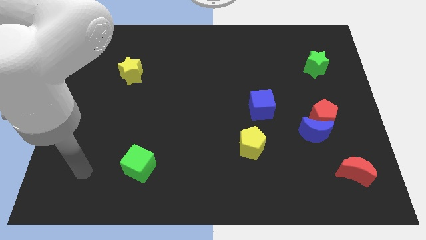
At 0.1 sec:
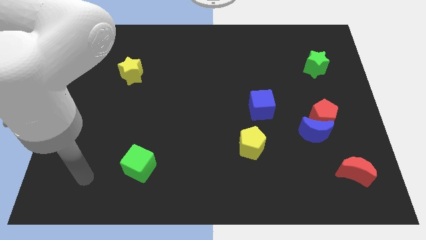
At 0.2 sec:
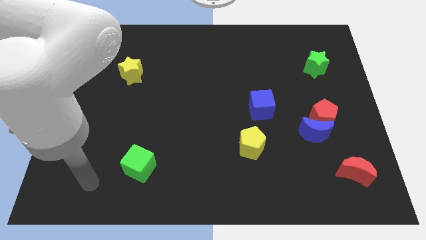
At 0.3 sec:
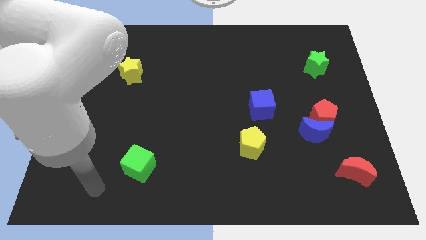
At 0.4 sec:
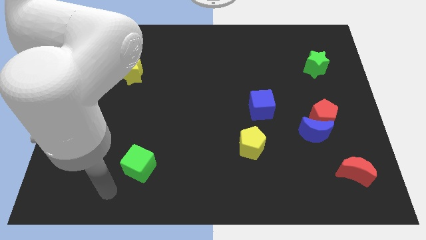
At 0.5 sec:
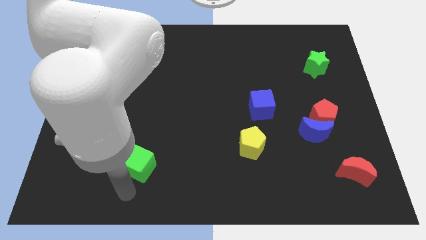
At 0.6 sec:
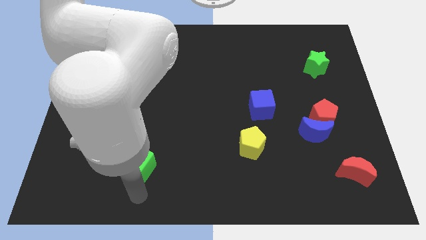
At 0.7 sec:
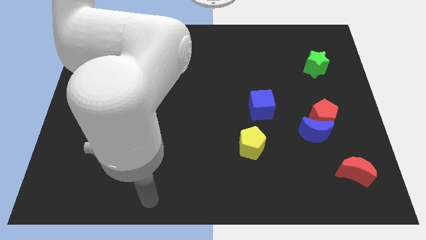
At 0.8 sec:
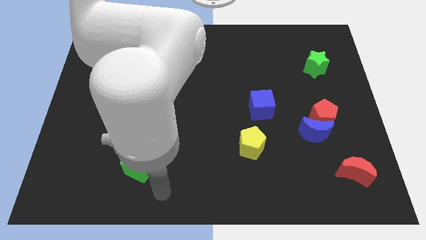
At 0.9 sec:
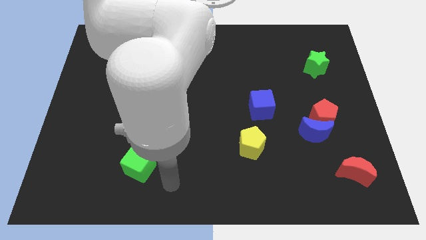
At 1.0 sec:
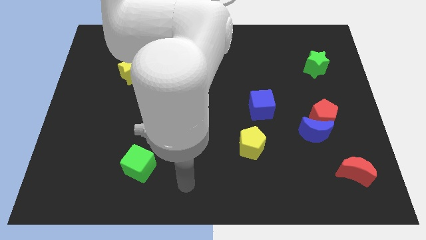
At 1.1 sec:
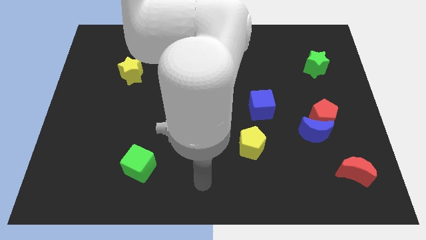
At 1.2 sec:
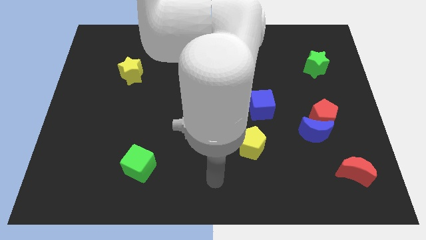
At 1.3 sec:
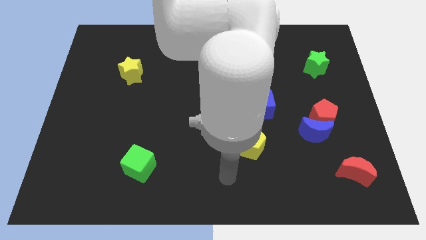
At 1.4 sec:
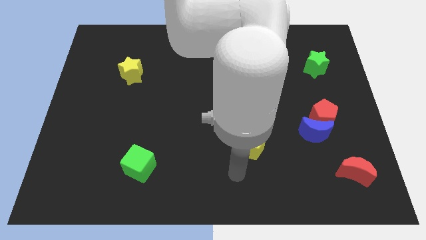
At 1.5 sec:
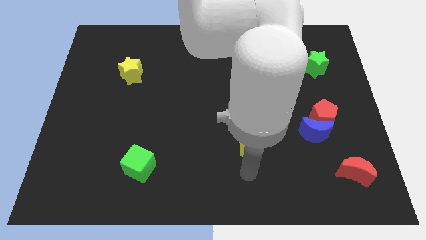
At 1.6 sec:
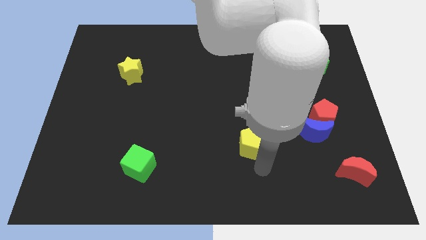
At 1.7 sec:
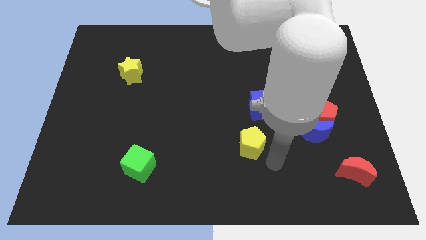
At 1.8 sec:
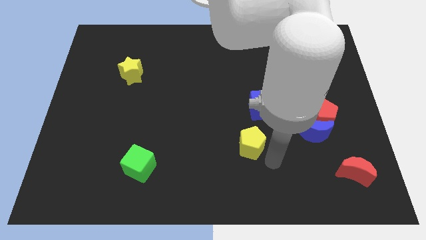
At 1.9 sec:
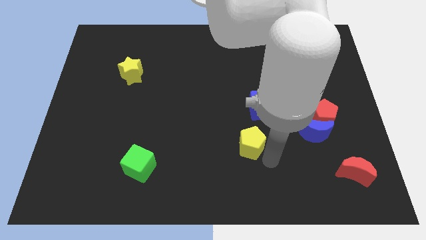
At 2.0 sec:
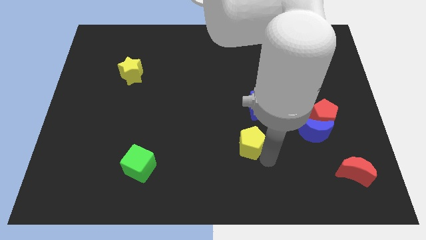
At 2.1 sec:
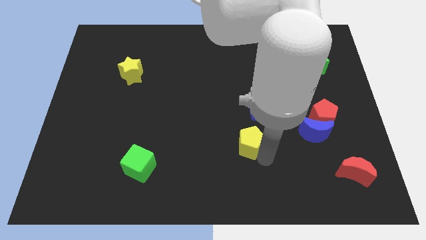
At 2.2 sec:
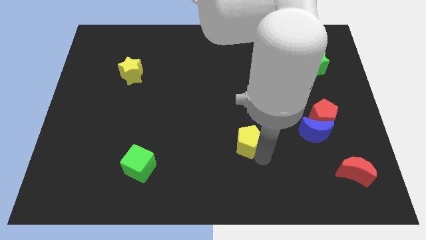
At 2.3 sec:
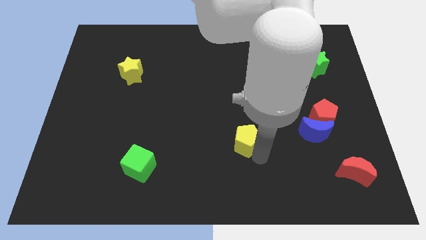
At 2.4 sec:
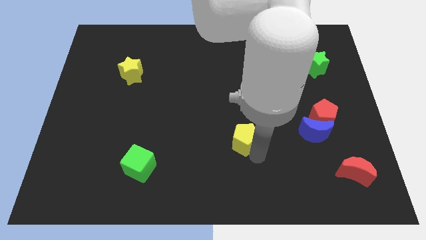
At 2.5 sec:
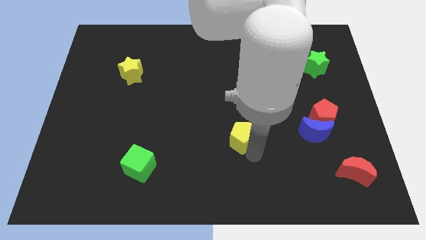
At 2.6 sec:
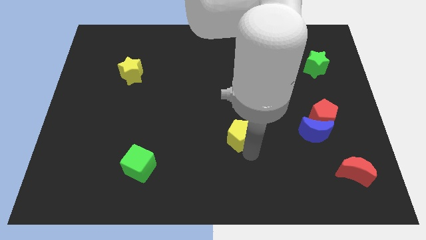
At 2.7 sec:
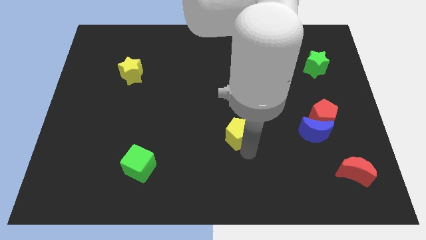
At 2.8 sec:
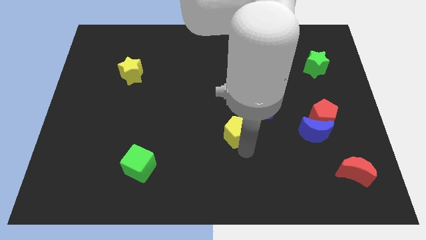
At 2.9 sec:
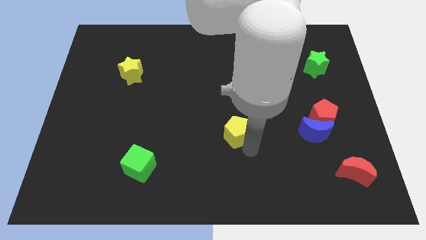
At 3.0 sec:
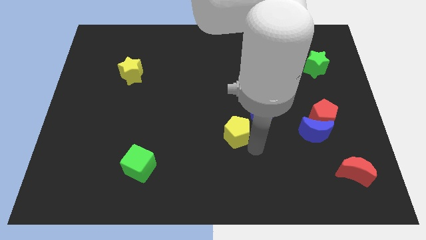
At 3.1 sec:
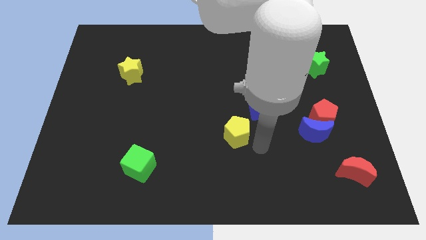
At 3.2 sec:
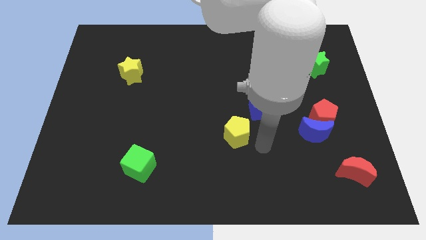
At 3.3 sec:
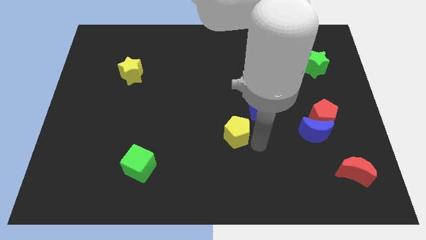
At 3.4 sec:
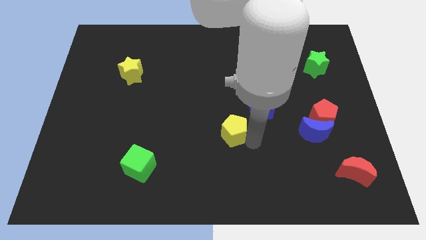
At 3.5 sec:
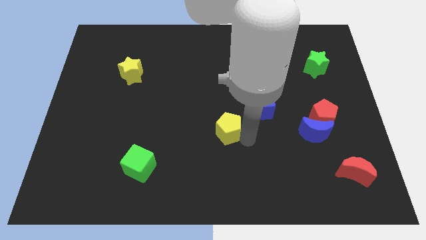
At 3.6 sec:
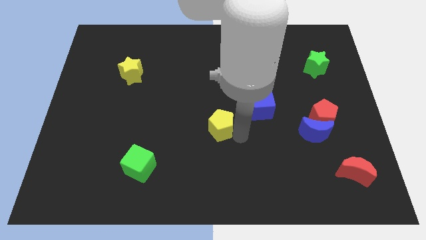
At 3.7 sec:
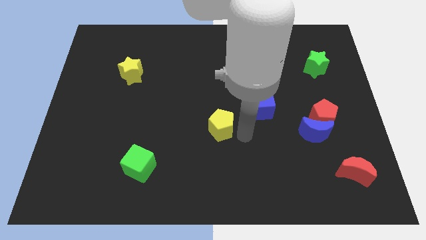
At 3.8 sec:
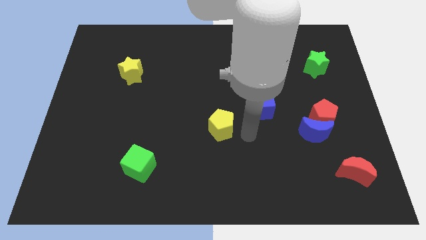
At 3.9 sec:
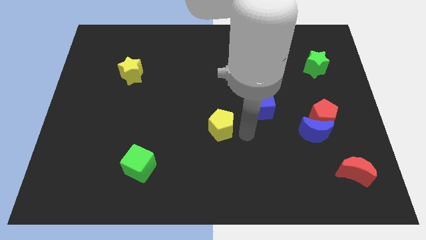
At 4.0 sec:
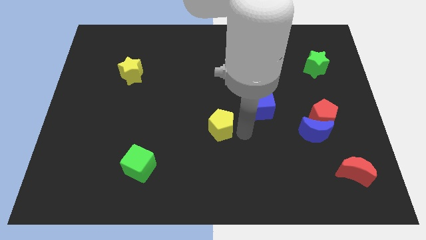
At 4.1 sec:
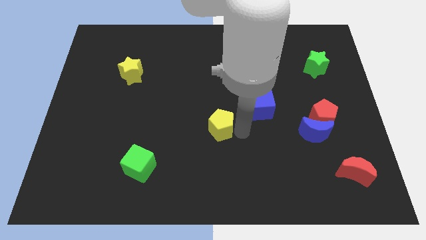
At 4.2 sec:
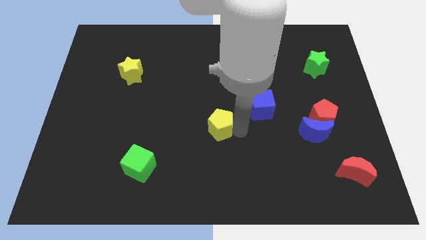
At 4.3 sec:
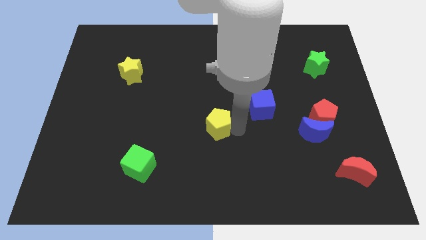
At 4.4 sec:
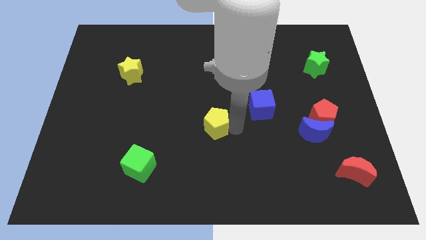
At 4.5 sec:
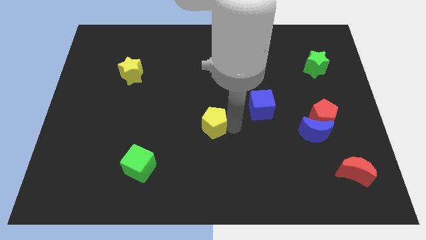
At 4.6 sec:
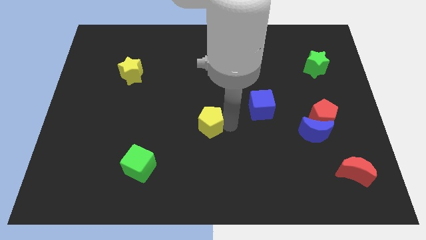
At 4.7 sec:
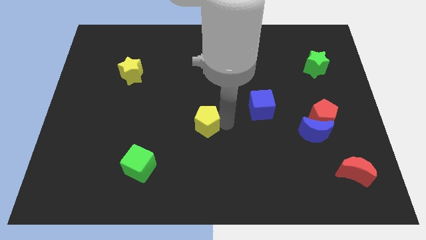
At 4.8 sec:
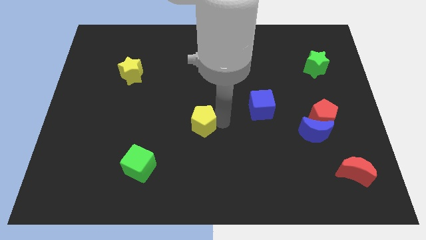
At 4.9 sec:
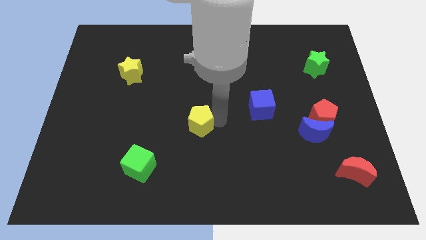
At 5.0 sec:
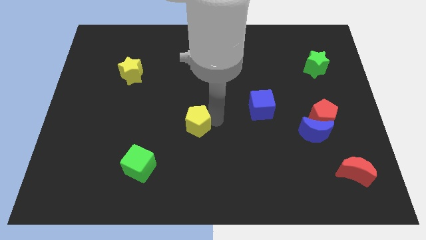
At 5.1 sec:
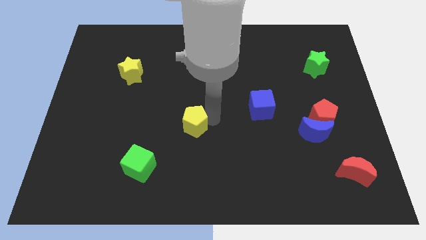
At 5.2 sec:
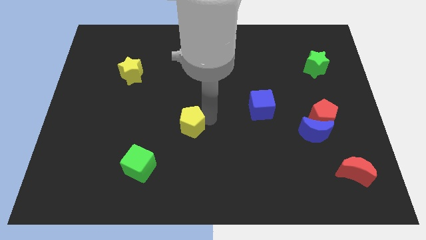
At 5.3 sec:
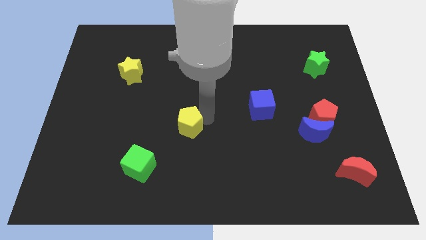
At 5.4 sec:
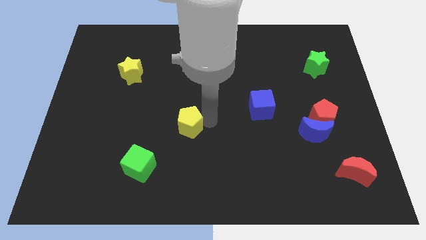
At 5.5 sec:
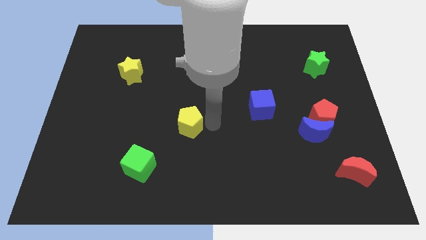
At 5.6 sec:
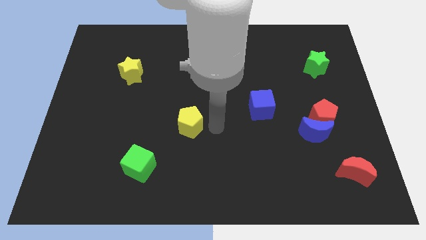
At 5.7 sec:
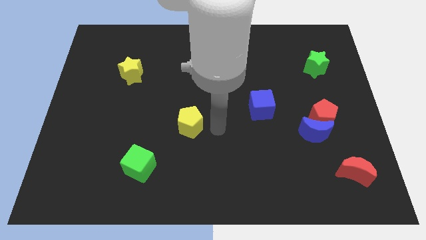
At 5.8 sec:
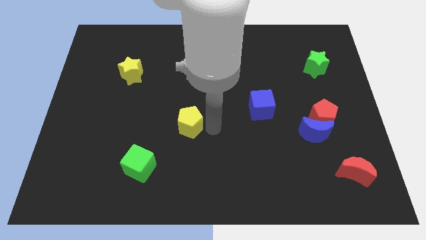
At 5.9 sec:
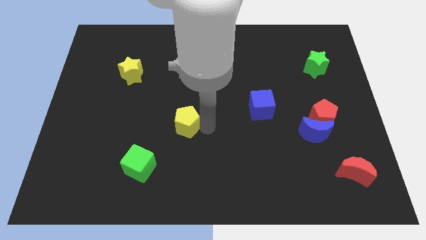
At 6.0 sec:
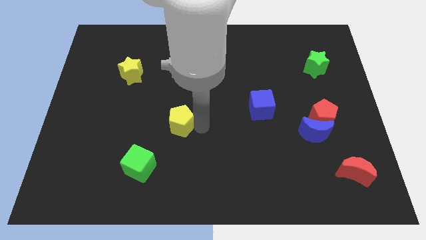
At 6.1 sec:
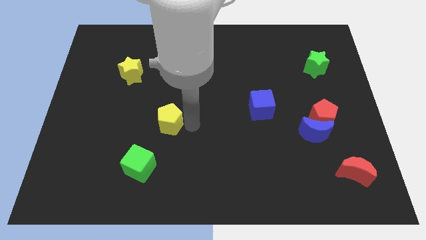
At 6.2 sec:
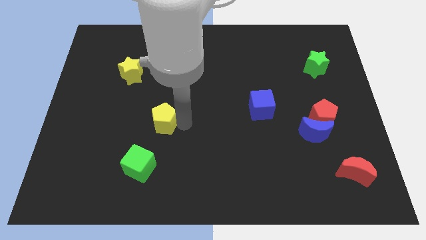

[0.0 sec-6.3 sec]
push the yellow pentagon to the top of the green cube
